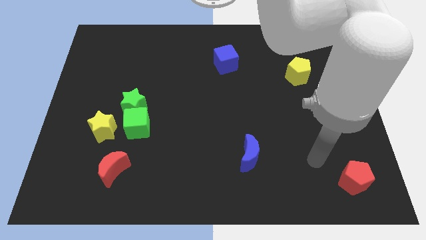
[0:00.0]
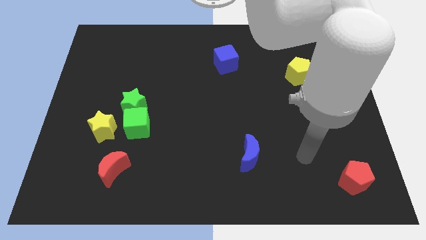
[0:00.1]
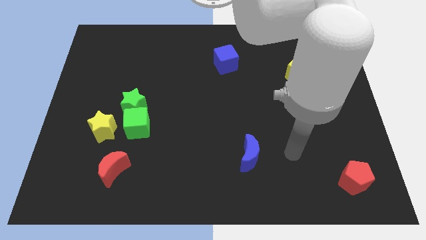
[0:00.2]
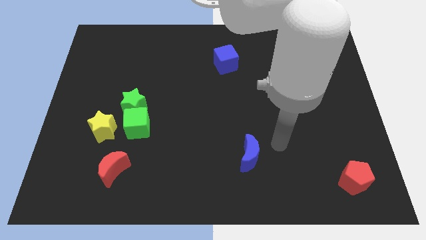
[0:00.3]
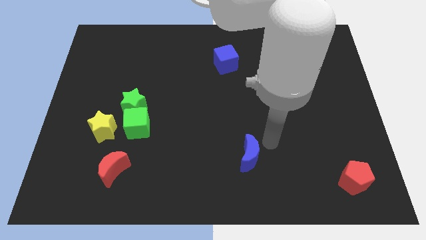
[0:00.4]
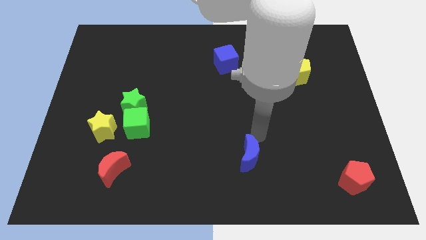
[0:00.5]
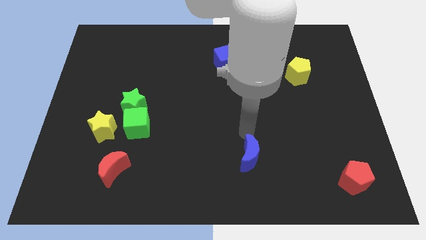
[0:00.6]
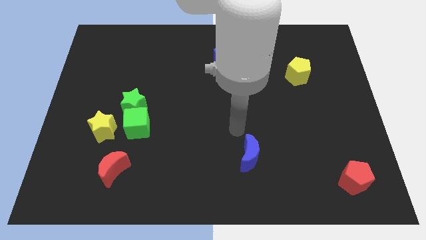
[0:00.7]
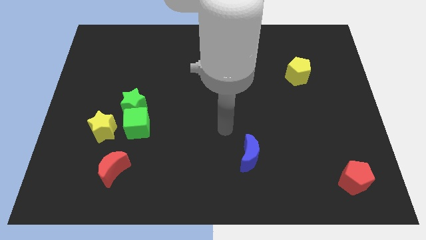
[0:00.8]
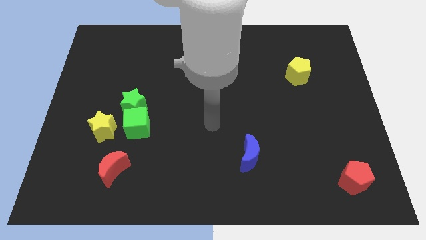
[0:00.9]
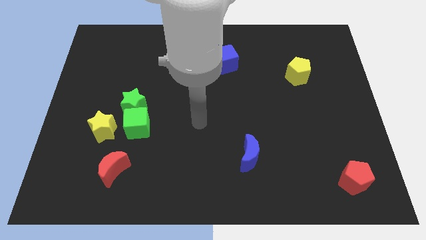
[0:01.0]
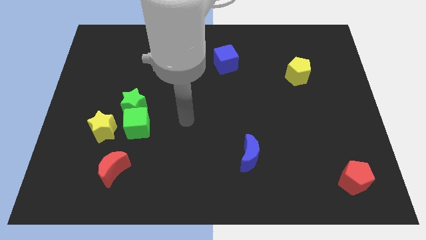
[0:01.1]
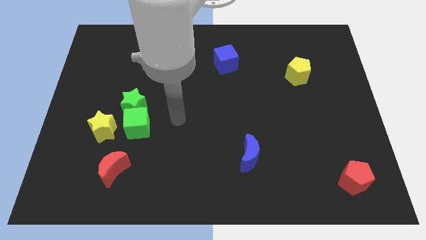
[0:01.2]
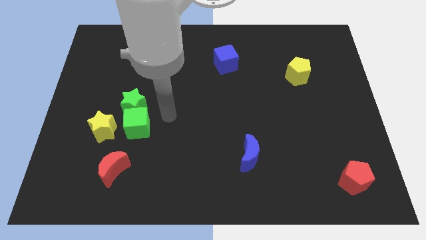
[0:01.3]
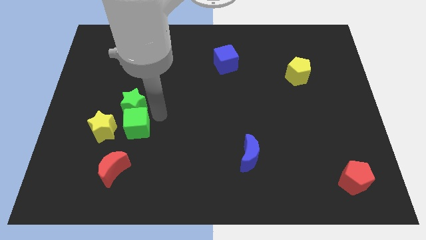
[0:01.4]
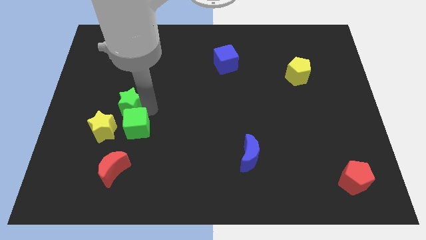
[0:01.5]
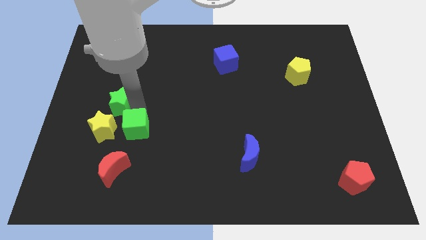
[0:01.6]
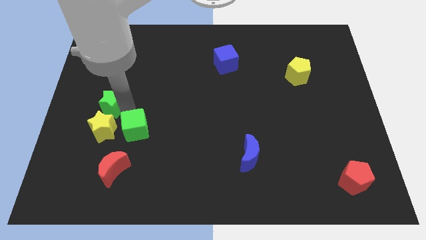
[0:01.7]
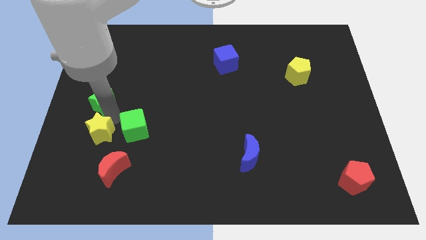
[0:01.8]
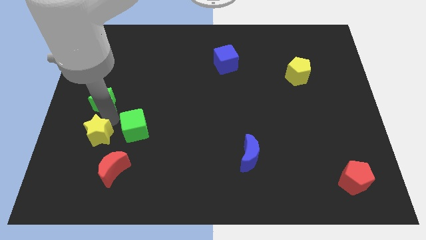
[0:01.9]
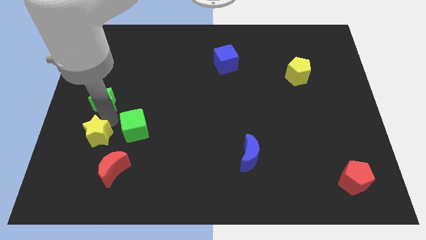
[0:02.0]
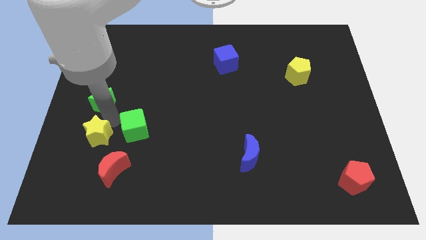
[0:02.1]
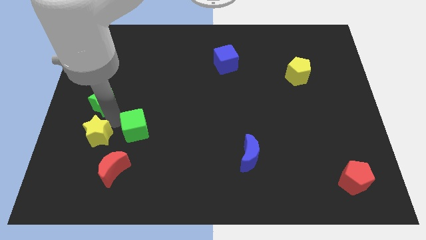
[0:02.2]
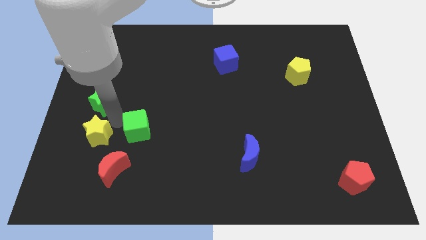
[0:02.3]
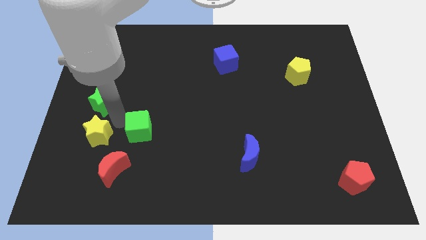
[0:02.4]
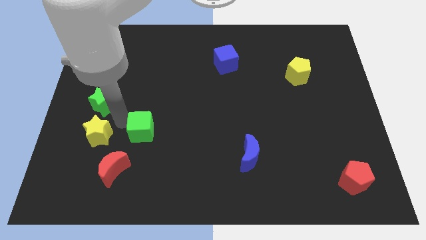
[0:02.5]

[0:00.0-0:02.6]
pull the green cube apart from the green star and yellow star

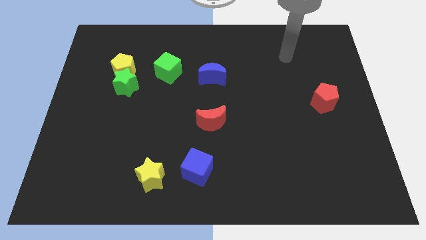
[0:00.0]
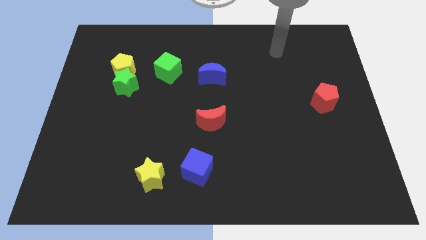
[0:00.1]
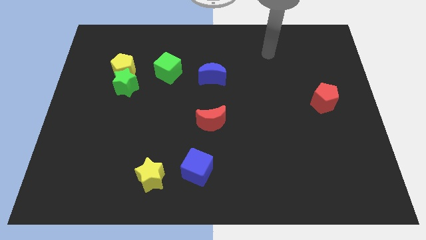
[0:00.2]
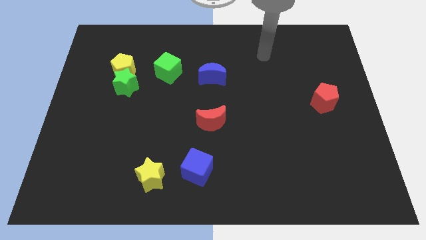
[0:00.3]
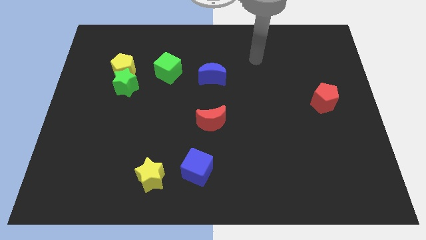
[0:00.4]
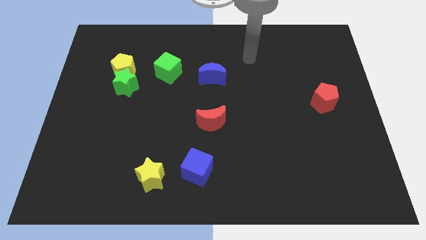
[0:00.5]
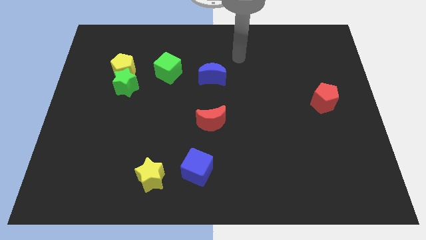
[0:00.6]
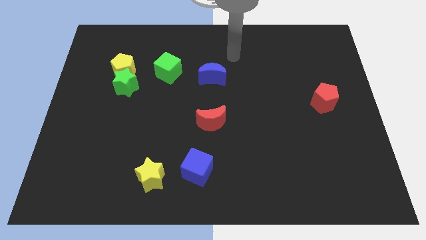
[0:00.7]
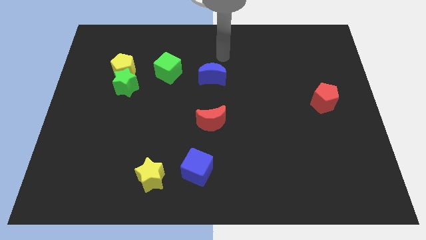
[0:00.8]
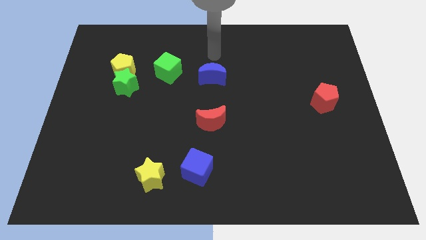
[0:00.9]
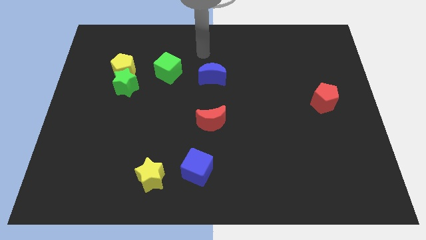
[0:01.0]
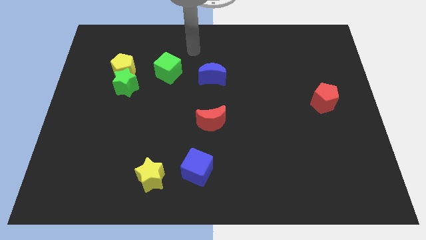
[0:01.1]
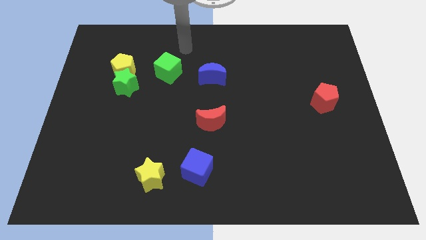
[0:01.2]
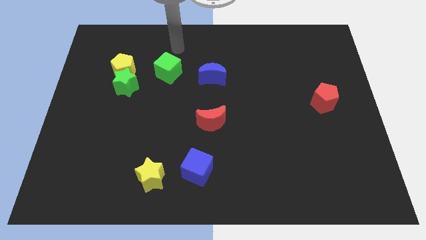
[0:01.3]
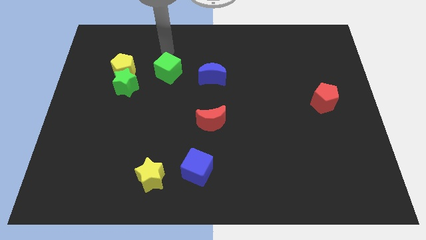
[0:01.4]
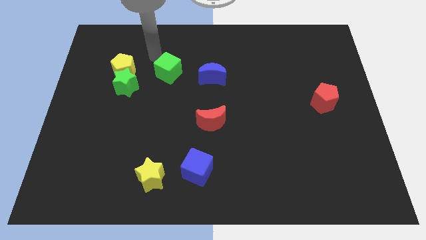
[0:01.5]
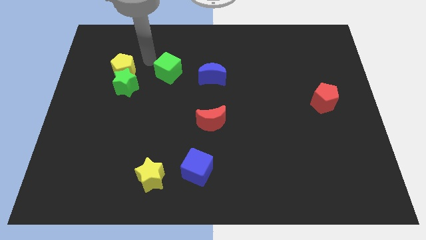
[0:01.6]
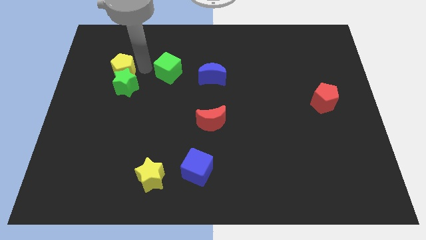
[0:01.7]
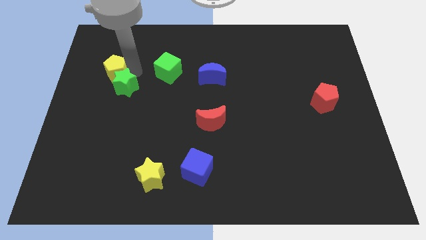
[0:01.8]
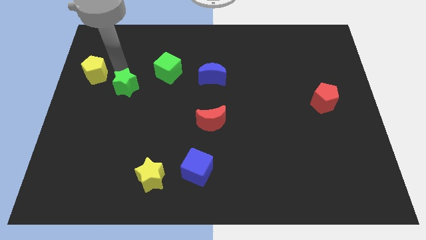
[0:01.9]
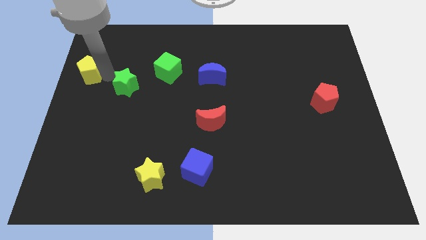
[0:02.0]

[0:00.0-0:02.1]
pull the green star apart from the yellow pentagon

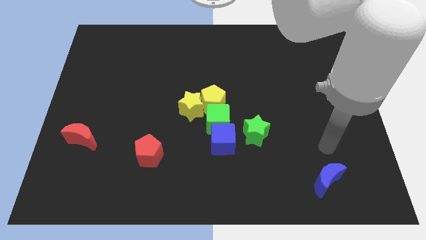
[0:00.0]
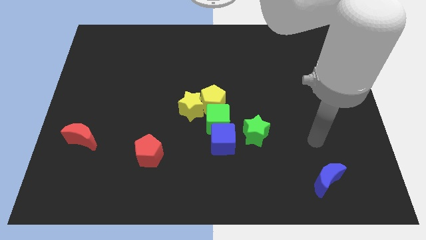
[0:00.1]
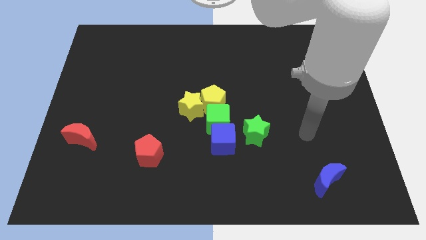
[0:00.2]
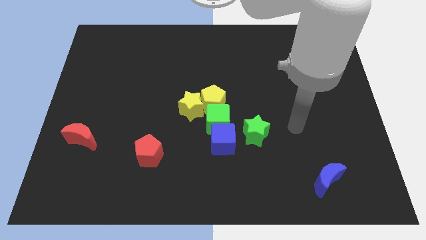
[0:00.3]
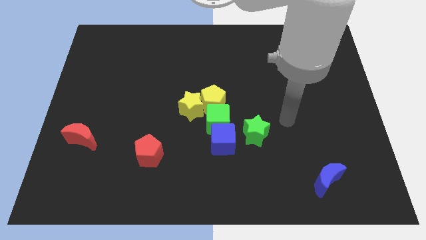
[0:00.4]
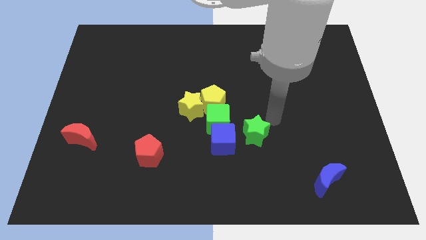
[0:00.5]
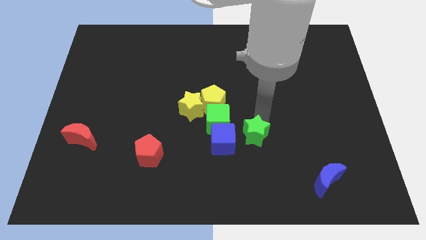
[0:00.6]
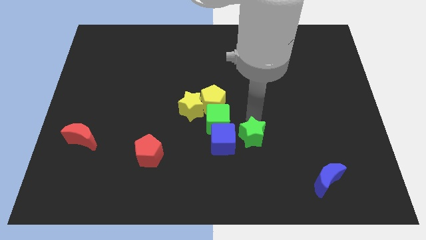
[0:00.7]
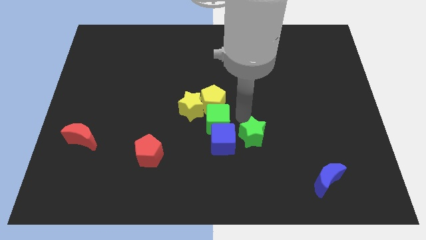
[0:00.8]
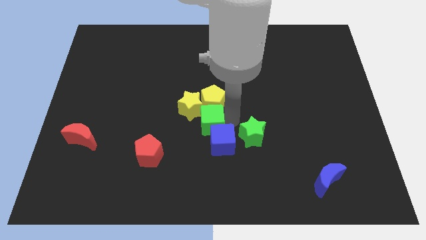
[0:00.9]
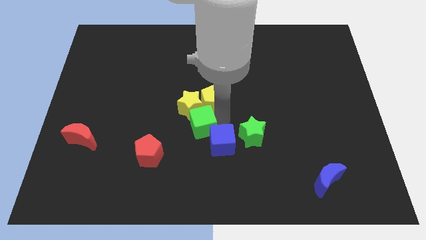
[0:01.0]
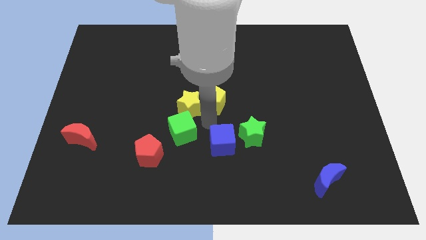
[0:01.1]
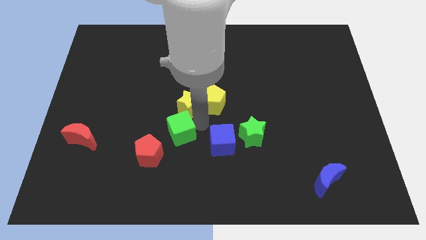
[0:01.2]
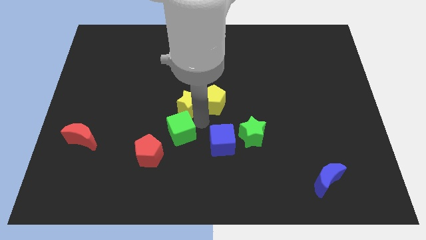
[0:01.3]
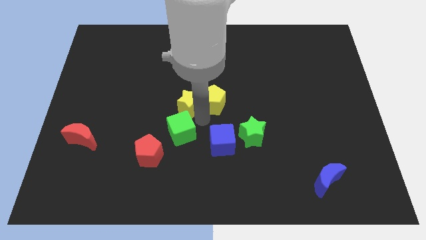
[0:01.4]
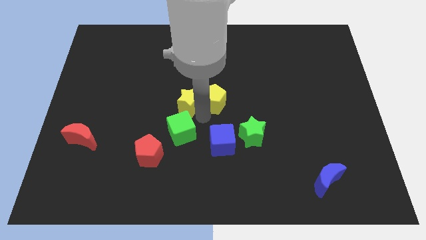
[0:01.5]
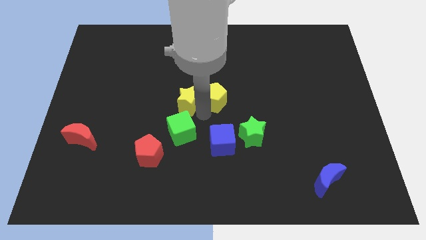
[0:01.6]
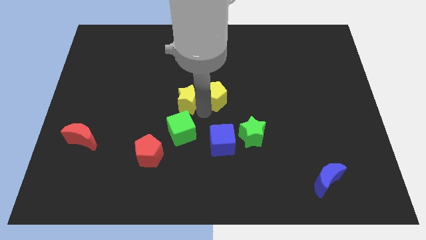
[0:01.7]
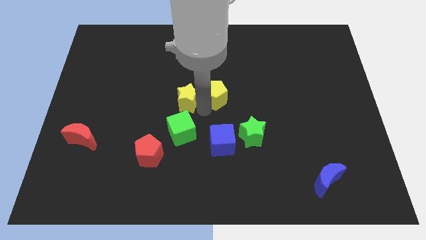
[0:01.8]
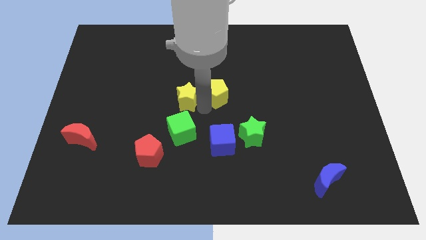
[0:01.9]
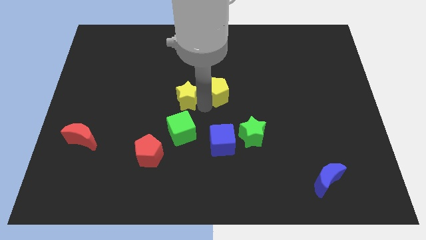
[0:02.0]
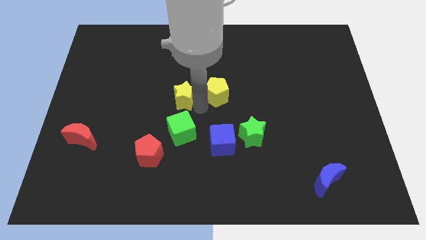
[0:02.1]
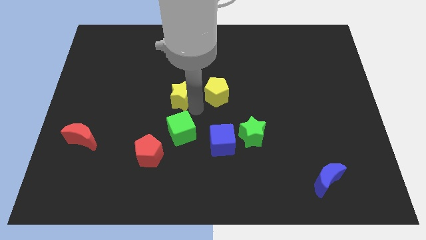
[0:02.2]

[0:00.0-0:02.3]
pull the yellow pentagon apart from the yellow star and green cube

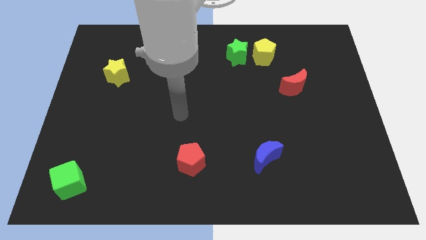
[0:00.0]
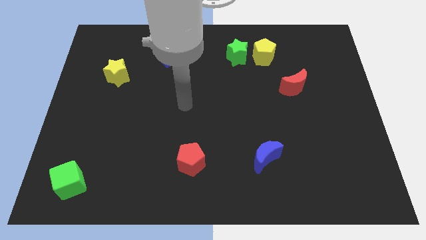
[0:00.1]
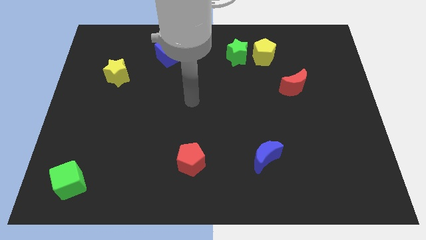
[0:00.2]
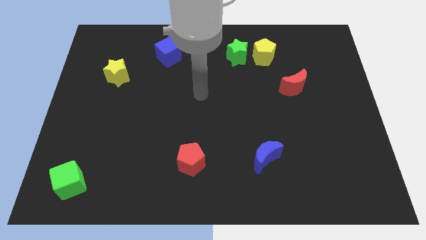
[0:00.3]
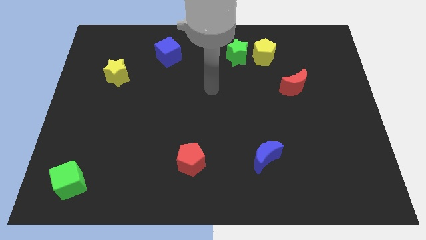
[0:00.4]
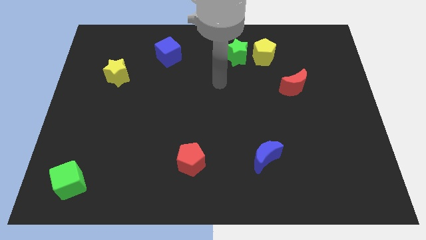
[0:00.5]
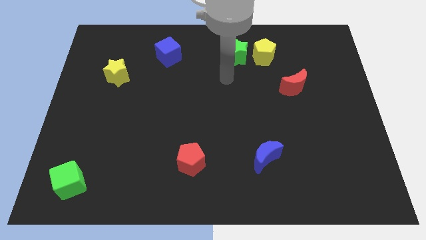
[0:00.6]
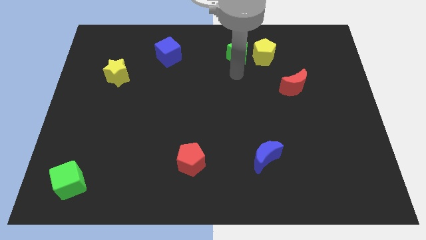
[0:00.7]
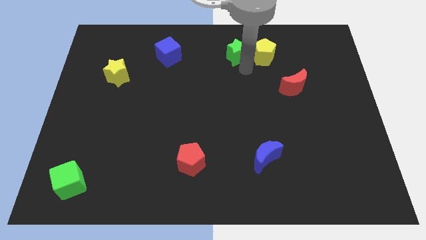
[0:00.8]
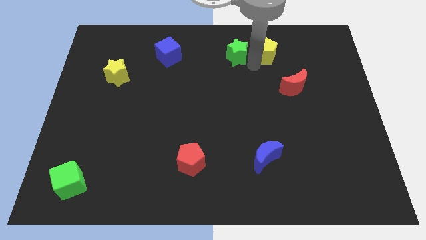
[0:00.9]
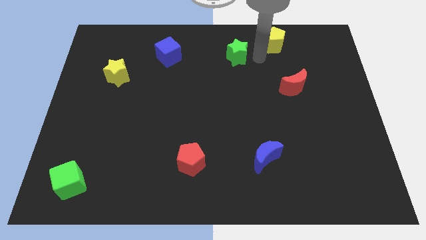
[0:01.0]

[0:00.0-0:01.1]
separate the green star from the yellow pentagon

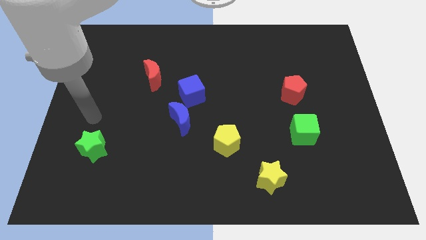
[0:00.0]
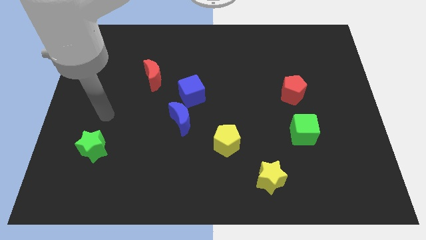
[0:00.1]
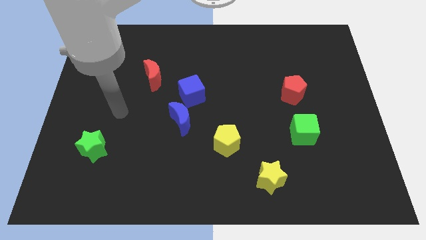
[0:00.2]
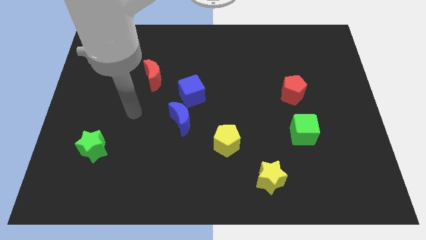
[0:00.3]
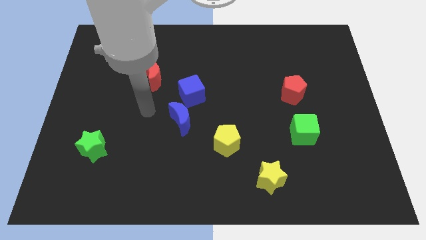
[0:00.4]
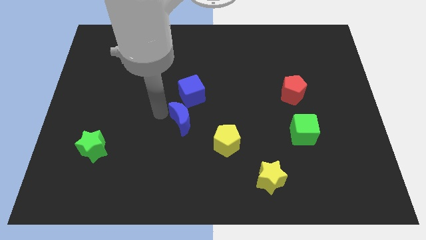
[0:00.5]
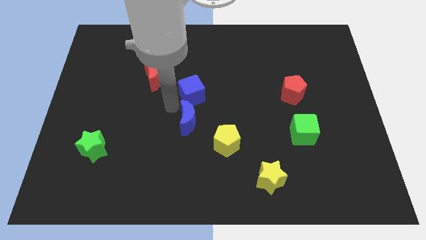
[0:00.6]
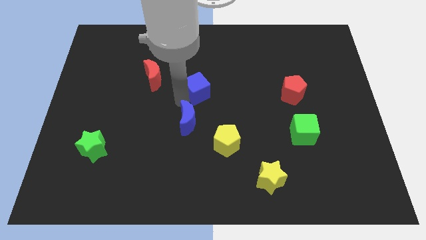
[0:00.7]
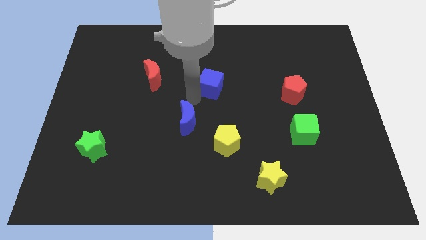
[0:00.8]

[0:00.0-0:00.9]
pull the blue moon apart from the blue cube

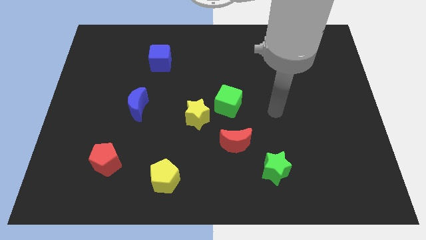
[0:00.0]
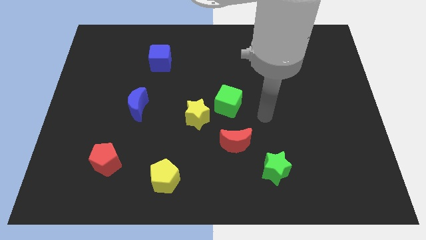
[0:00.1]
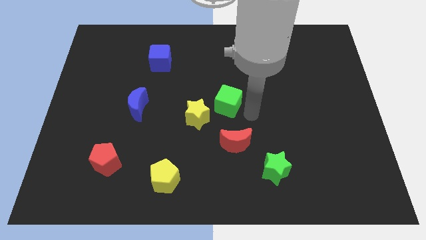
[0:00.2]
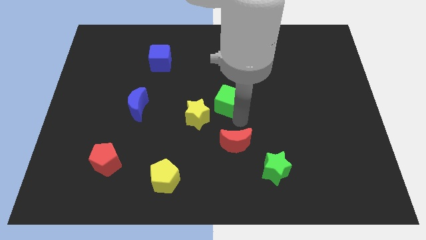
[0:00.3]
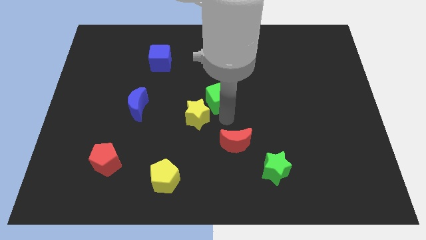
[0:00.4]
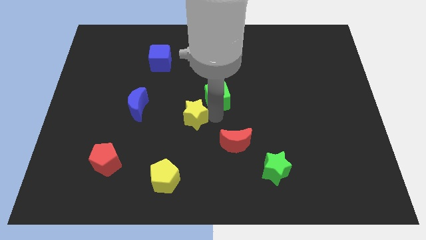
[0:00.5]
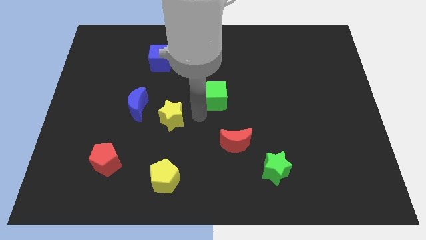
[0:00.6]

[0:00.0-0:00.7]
separate the green cube from the yellow star
